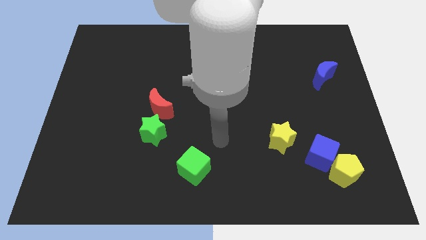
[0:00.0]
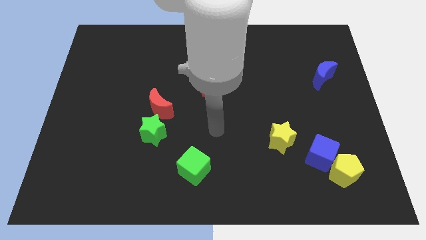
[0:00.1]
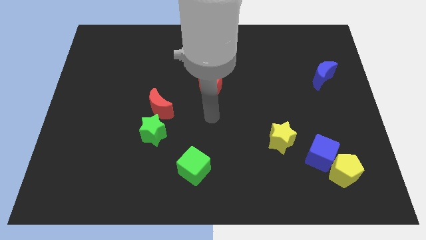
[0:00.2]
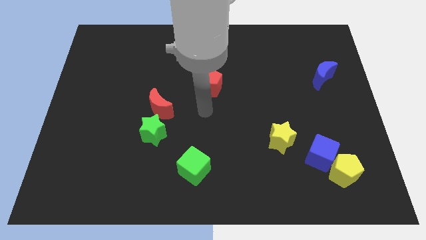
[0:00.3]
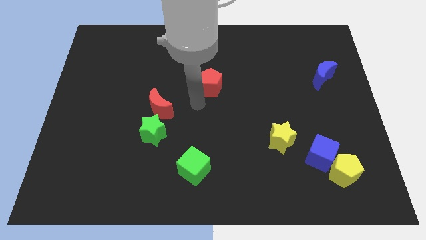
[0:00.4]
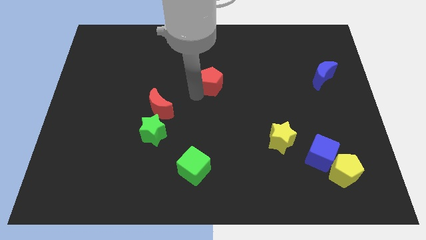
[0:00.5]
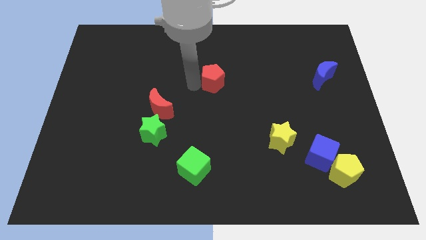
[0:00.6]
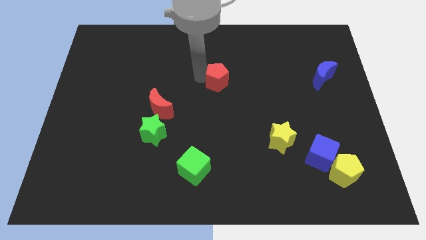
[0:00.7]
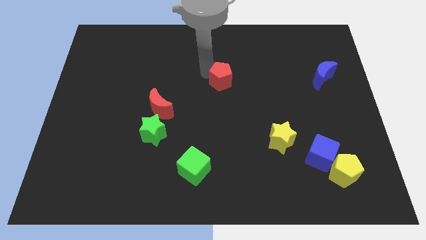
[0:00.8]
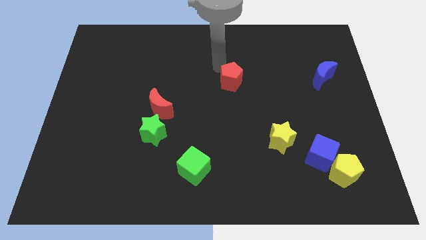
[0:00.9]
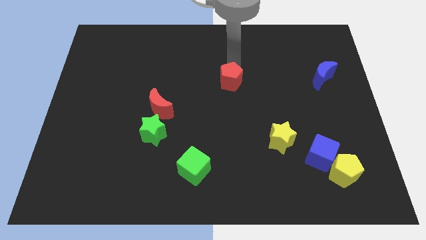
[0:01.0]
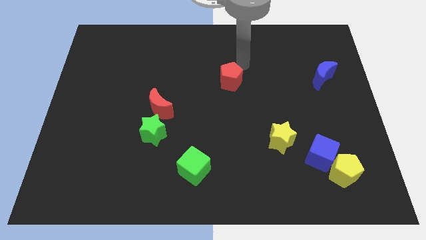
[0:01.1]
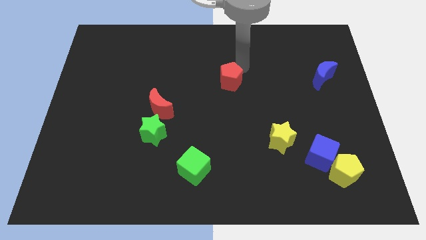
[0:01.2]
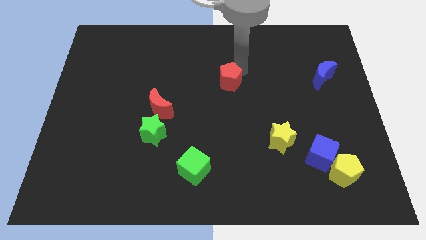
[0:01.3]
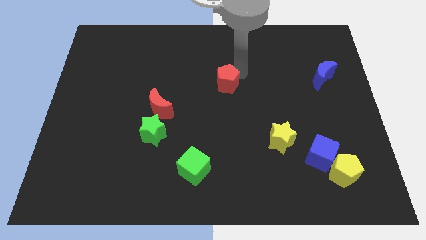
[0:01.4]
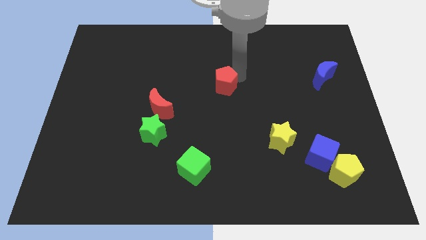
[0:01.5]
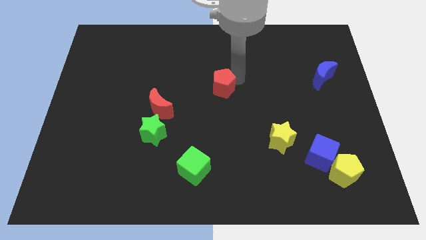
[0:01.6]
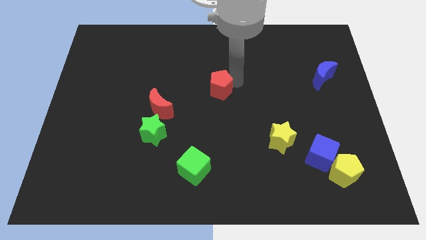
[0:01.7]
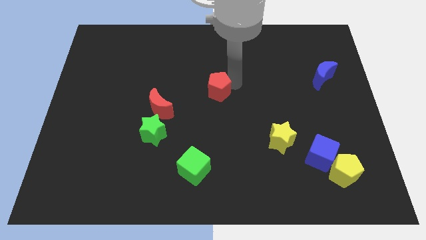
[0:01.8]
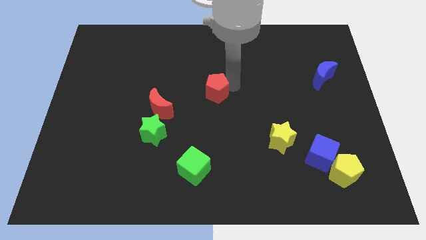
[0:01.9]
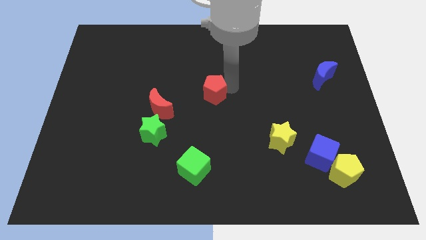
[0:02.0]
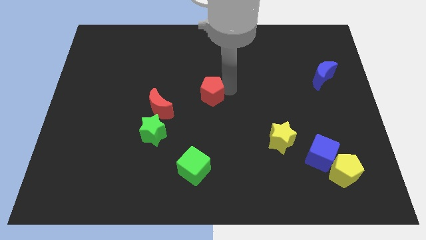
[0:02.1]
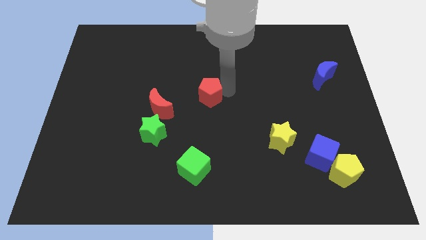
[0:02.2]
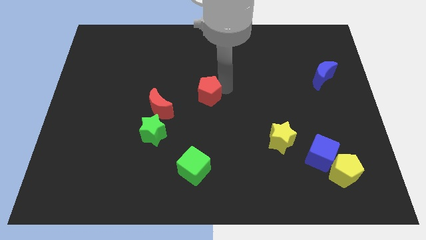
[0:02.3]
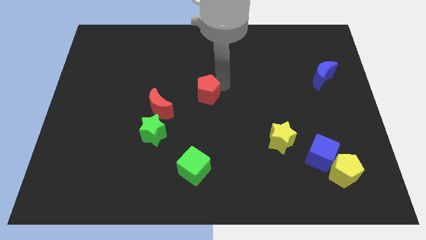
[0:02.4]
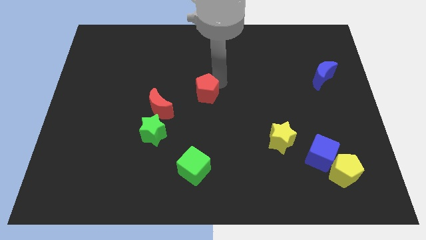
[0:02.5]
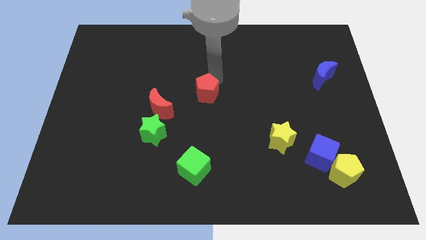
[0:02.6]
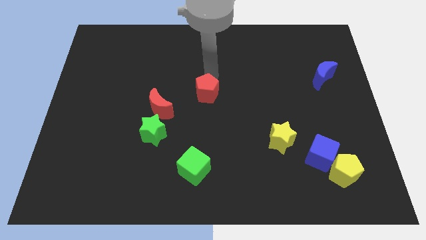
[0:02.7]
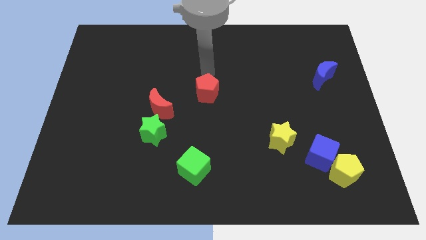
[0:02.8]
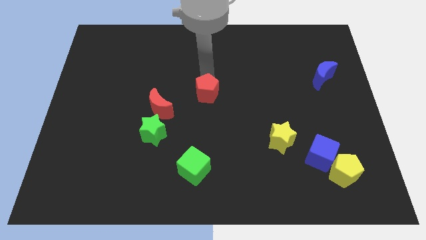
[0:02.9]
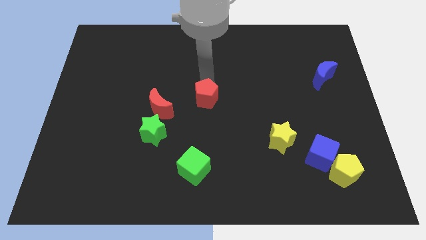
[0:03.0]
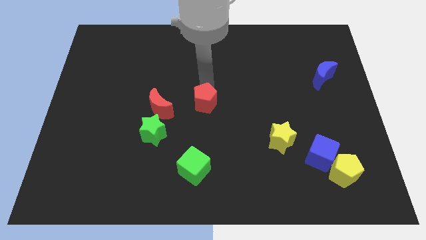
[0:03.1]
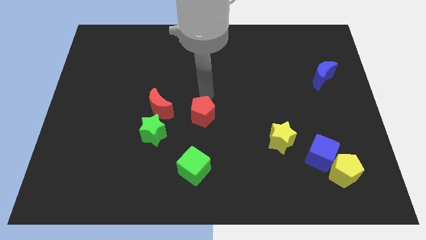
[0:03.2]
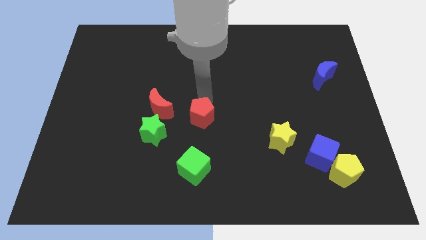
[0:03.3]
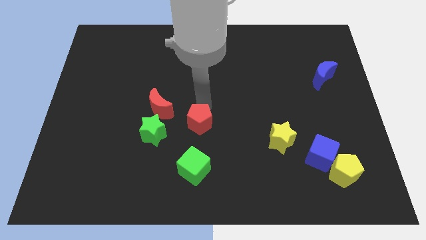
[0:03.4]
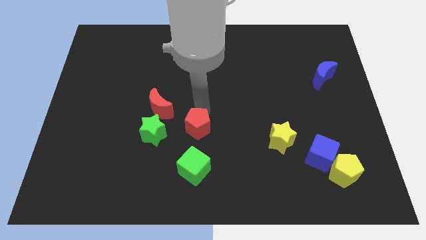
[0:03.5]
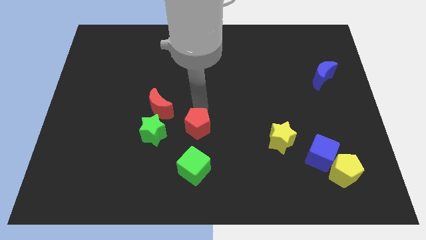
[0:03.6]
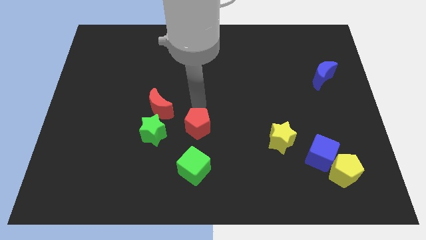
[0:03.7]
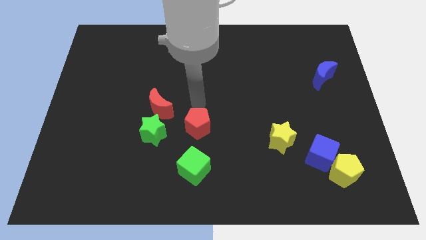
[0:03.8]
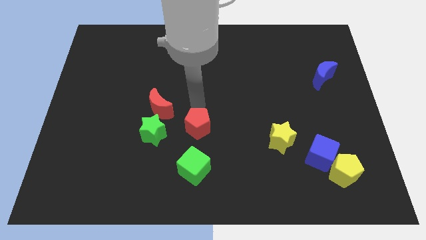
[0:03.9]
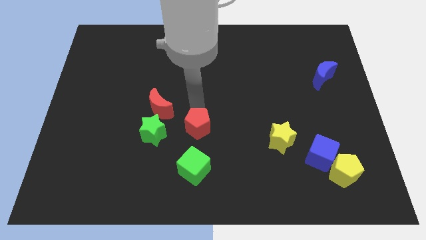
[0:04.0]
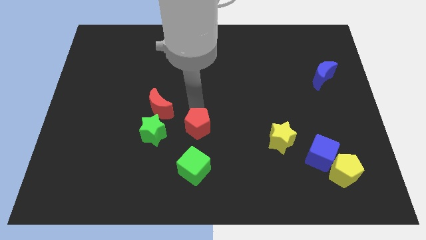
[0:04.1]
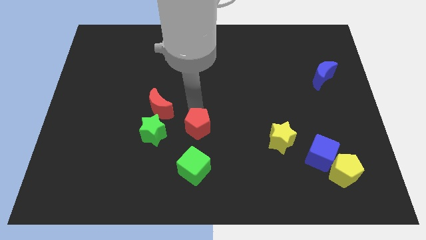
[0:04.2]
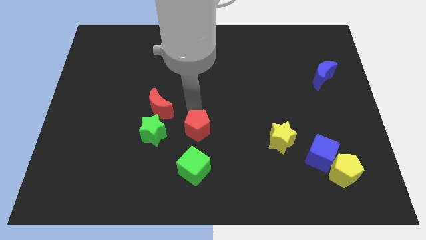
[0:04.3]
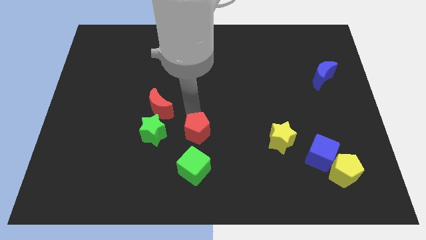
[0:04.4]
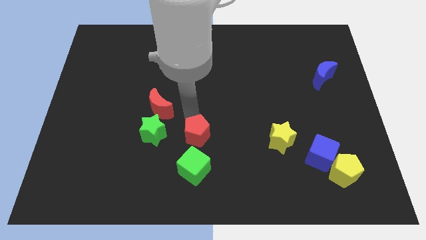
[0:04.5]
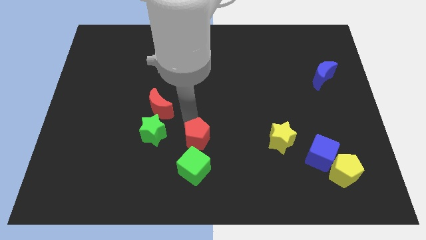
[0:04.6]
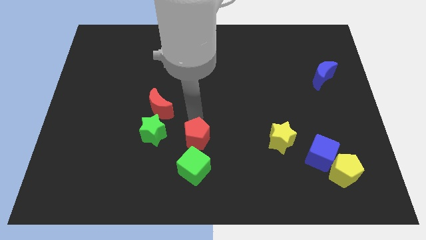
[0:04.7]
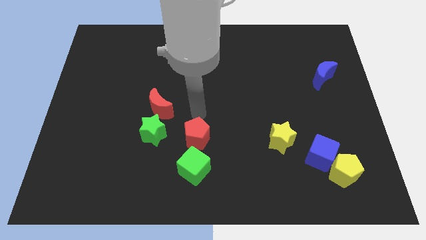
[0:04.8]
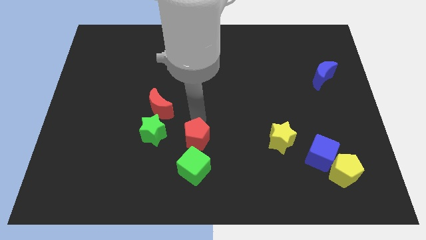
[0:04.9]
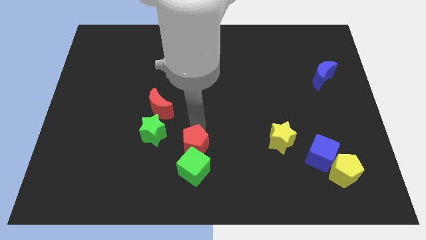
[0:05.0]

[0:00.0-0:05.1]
push the red pentagon towards the green cube
